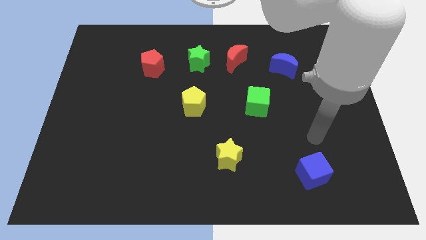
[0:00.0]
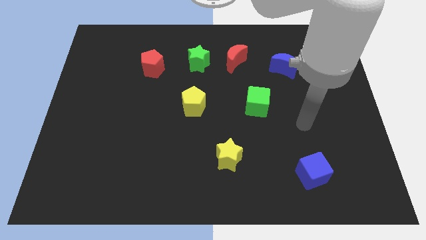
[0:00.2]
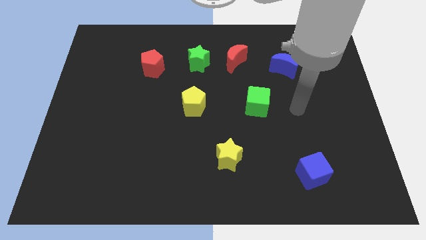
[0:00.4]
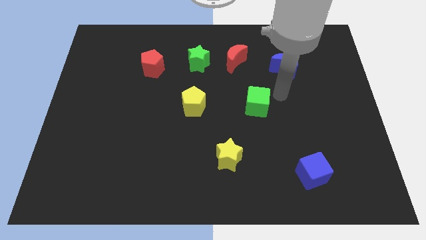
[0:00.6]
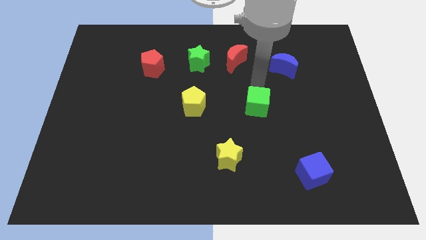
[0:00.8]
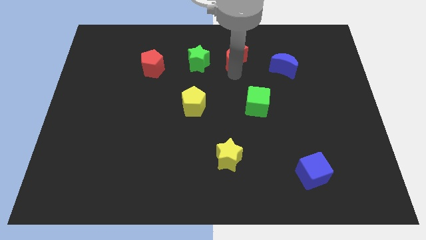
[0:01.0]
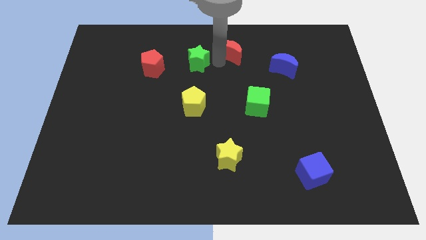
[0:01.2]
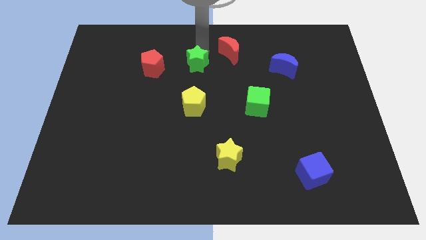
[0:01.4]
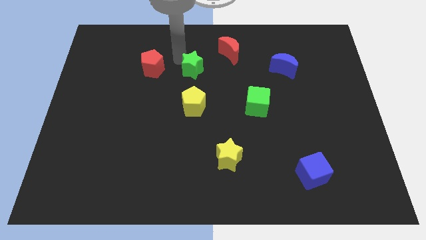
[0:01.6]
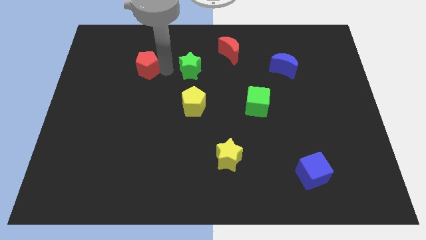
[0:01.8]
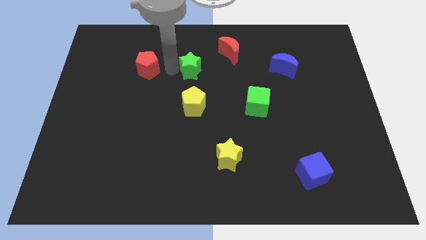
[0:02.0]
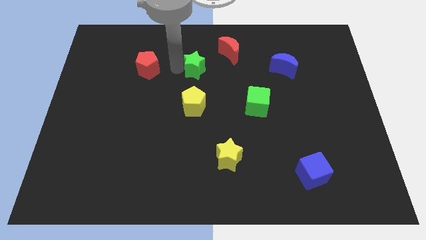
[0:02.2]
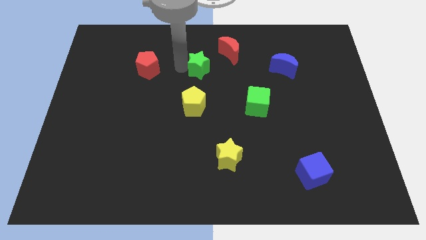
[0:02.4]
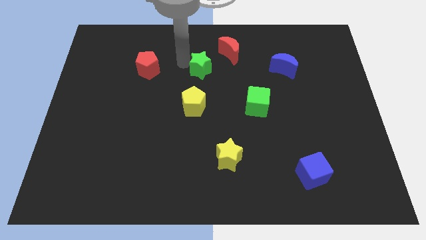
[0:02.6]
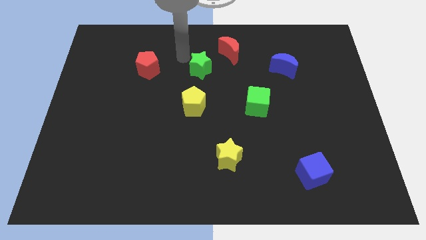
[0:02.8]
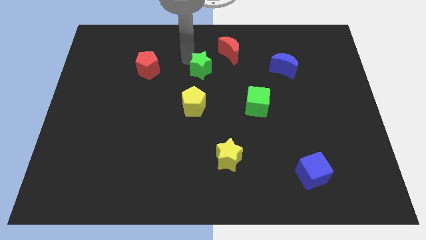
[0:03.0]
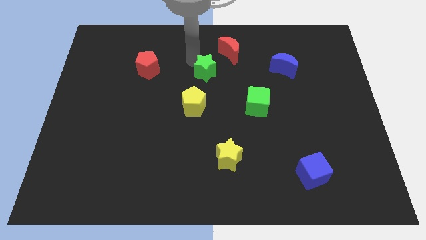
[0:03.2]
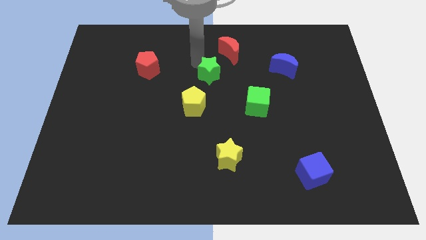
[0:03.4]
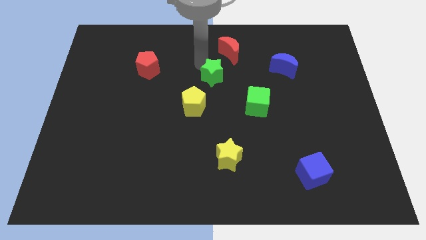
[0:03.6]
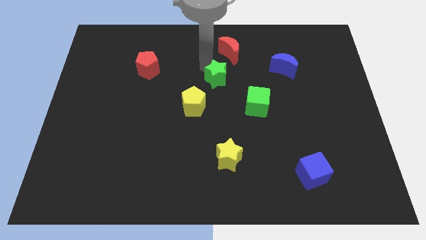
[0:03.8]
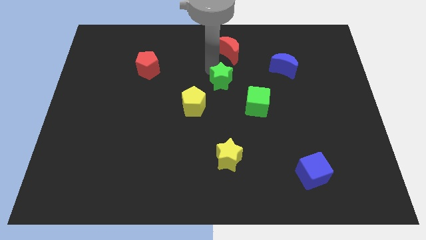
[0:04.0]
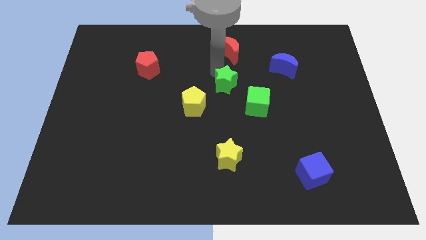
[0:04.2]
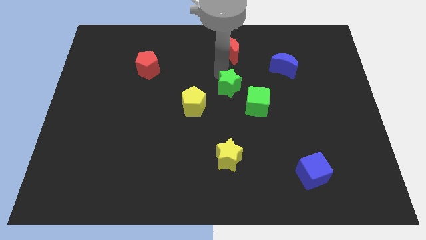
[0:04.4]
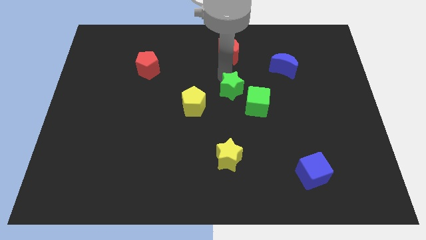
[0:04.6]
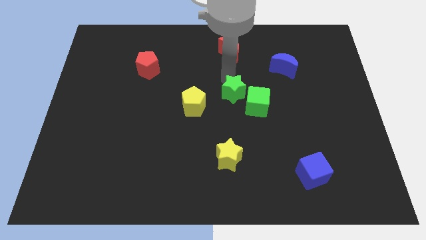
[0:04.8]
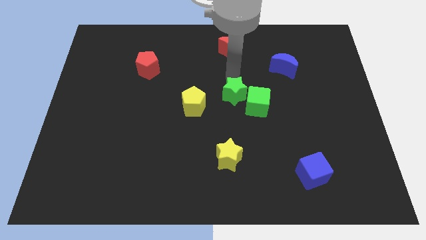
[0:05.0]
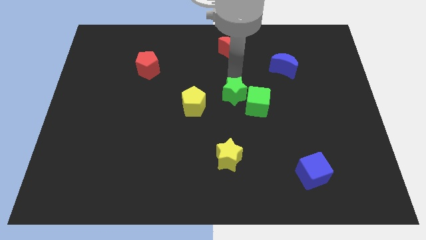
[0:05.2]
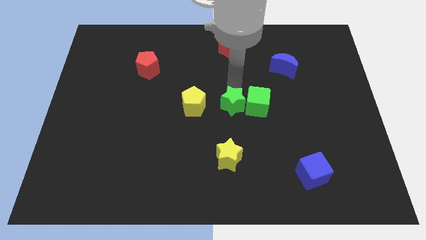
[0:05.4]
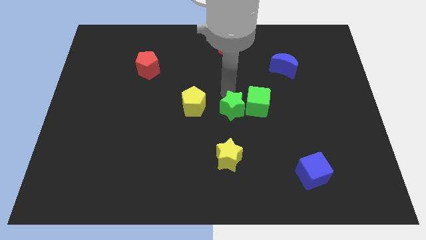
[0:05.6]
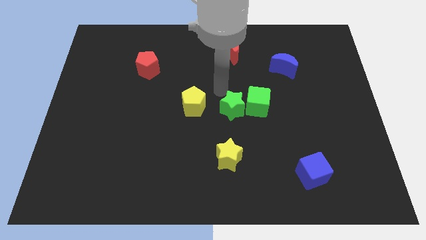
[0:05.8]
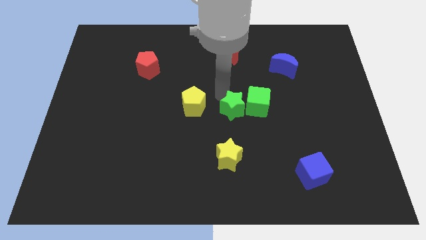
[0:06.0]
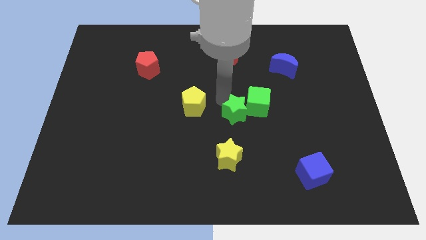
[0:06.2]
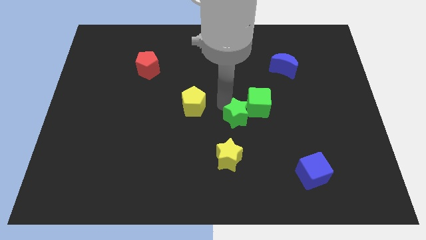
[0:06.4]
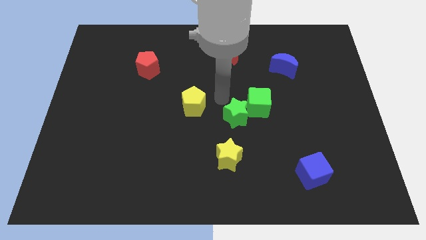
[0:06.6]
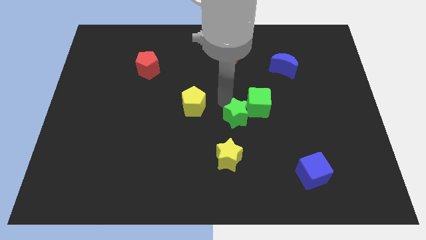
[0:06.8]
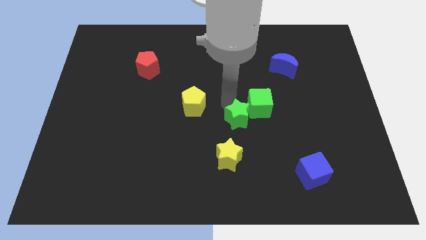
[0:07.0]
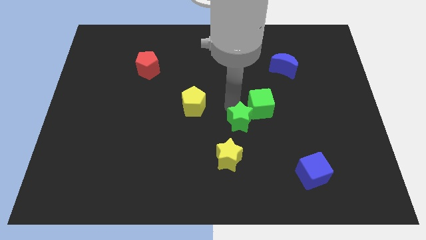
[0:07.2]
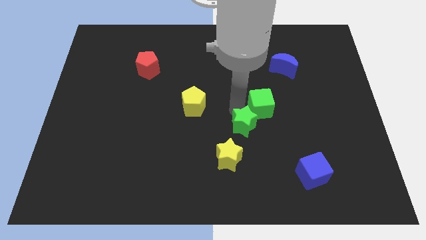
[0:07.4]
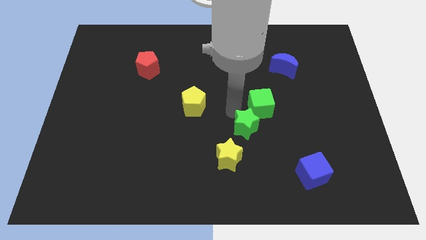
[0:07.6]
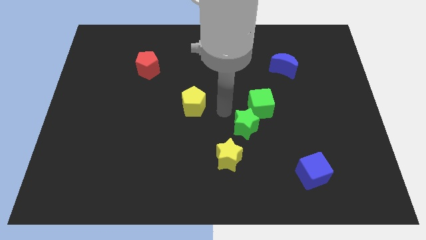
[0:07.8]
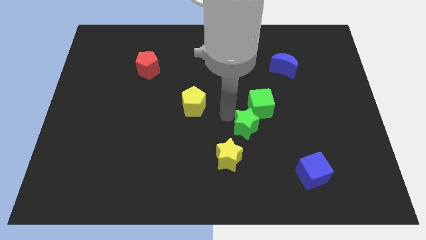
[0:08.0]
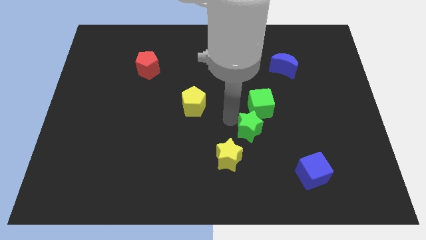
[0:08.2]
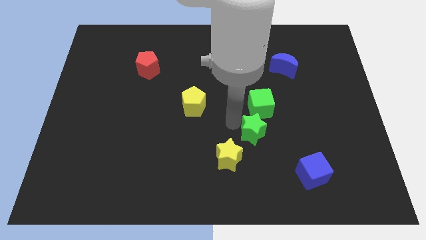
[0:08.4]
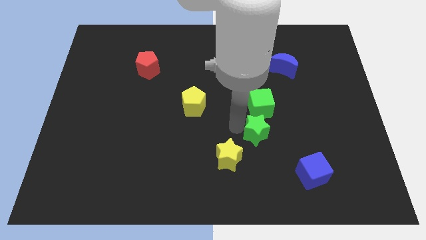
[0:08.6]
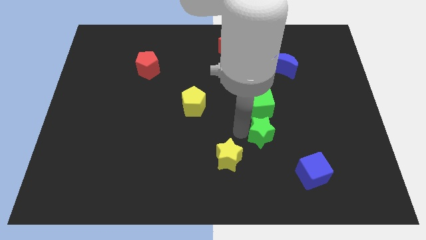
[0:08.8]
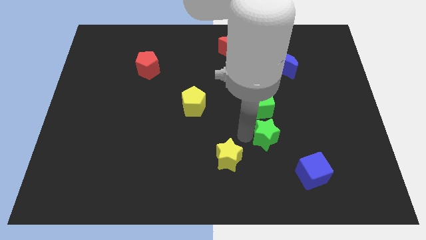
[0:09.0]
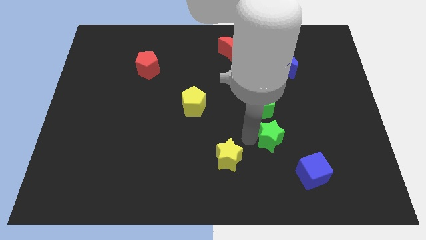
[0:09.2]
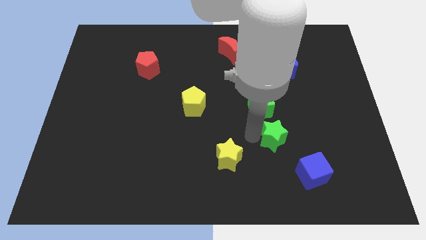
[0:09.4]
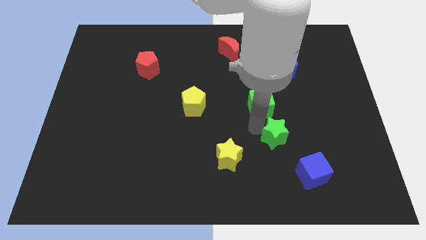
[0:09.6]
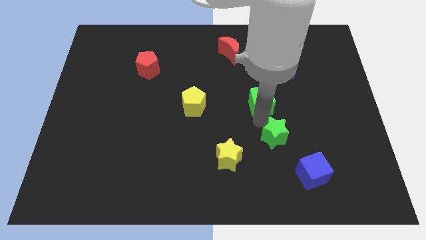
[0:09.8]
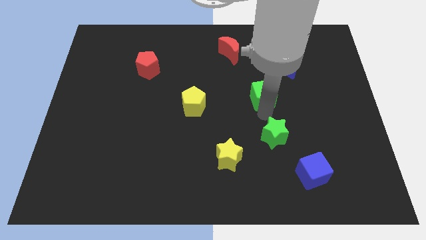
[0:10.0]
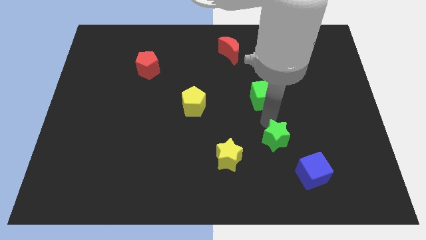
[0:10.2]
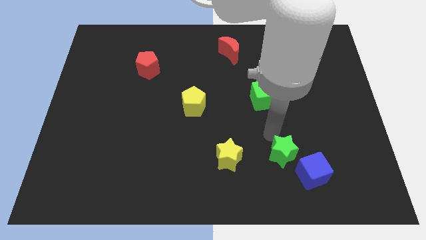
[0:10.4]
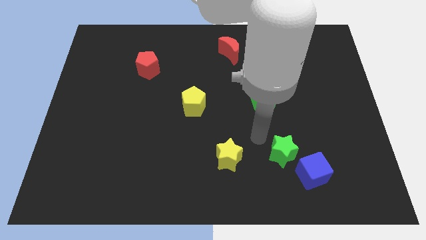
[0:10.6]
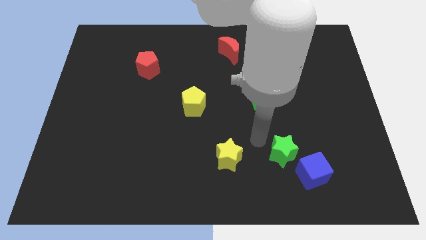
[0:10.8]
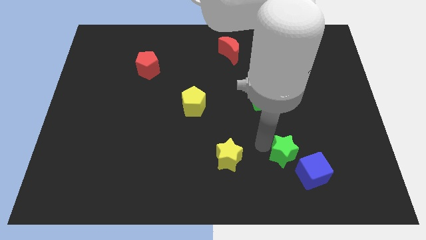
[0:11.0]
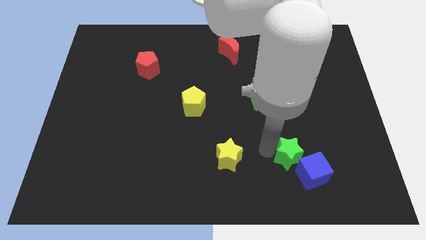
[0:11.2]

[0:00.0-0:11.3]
move the green star to the blue cube

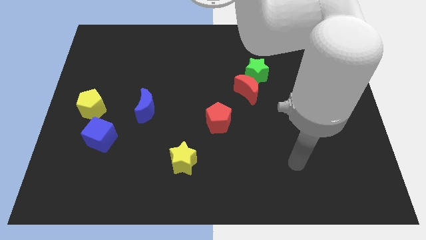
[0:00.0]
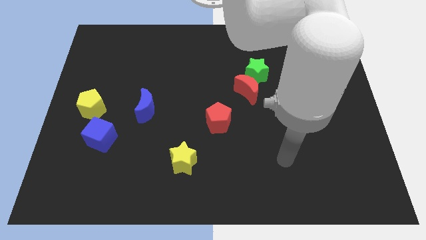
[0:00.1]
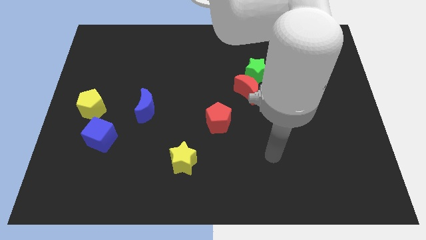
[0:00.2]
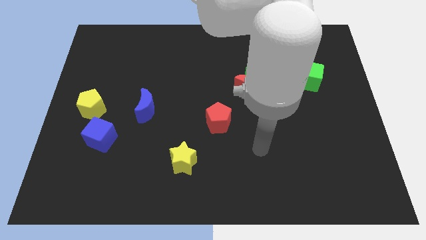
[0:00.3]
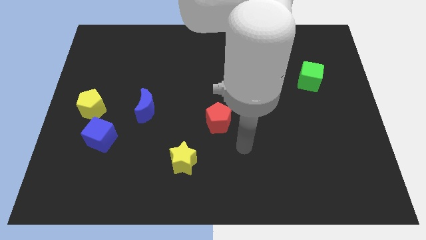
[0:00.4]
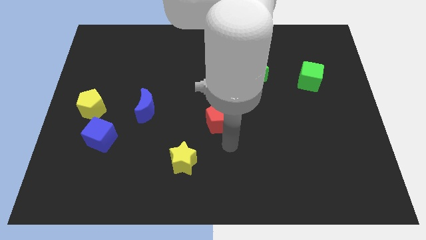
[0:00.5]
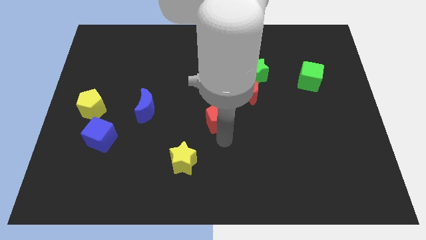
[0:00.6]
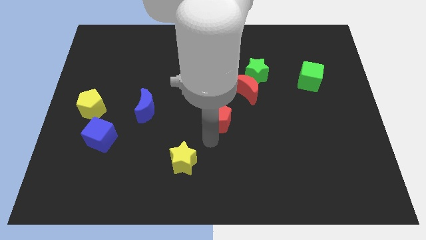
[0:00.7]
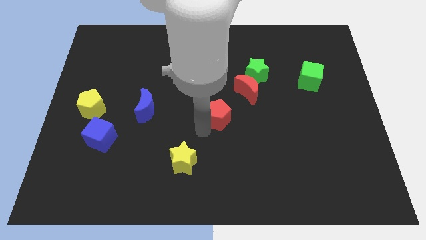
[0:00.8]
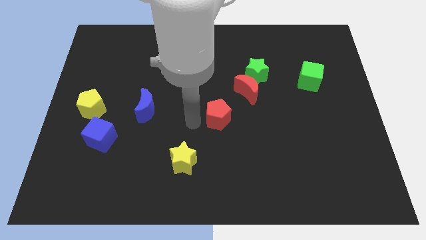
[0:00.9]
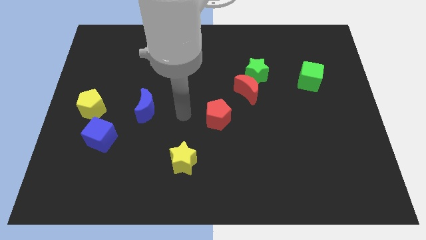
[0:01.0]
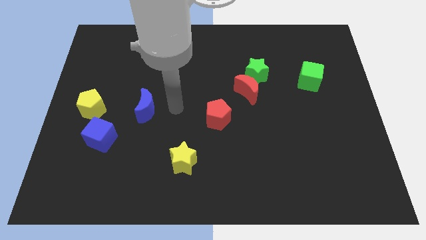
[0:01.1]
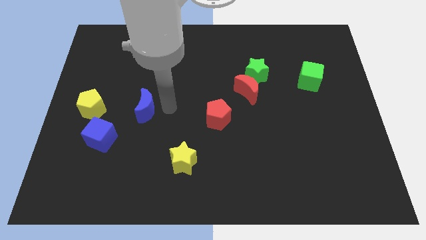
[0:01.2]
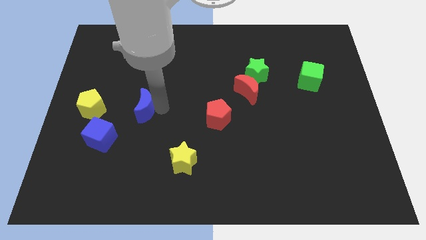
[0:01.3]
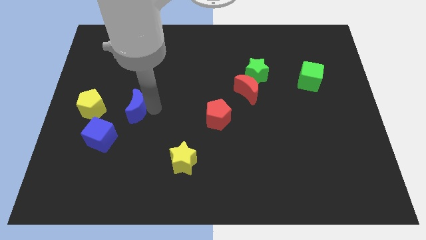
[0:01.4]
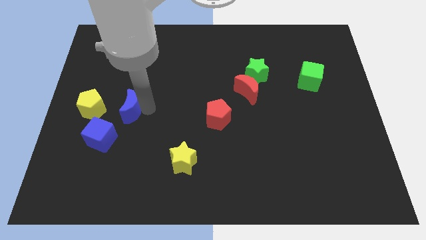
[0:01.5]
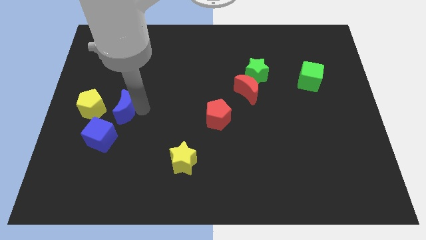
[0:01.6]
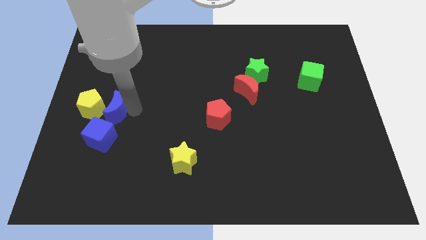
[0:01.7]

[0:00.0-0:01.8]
move the blue moon to the yellow pentagon
